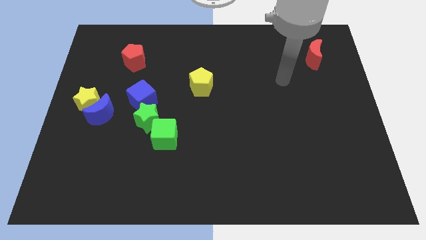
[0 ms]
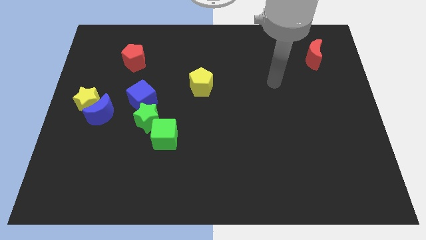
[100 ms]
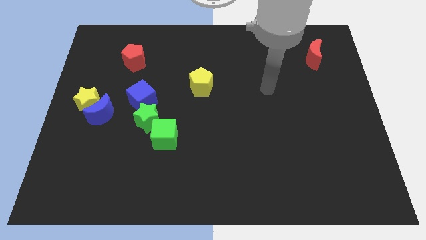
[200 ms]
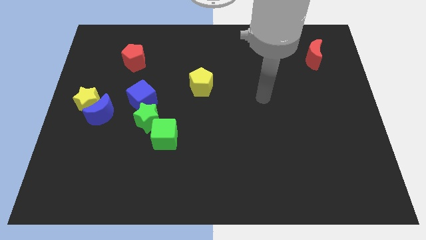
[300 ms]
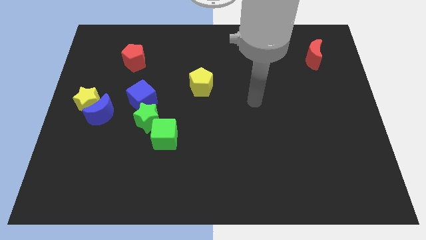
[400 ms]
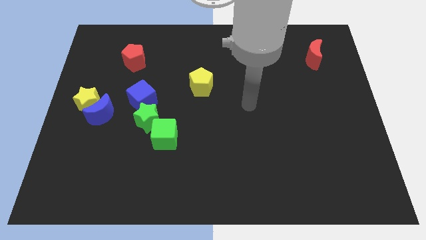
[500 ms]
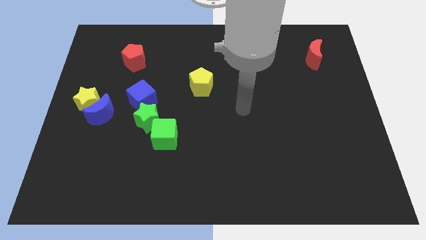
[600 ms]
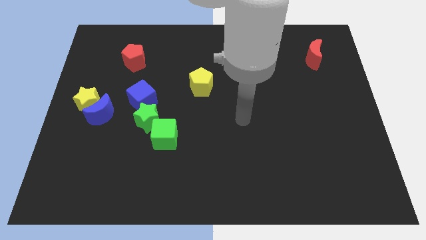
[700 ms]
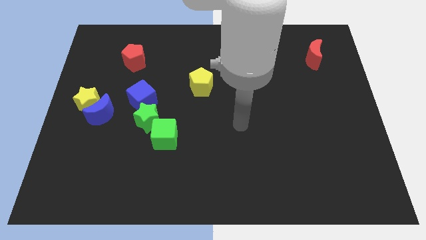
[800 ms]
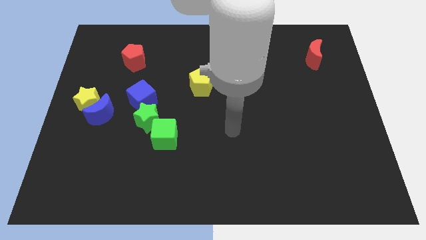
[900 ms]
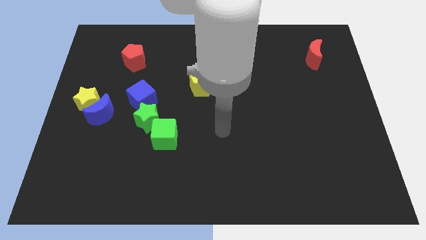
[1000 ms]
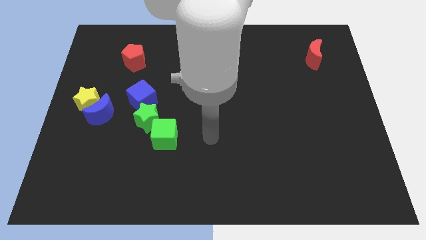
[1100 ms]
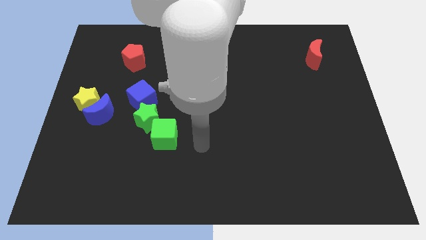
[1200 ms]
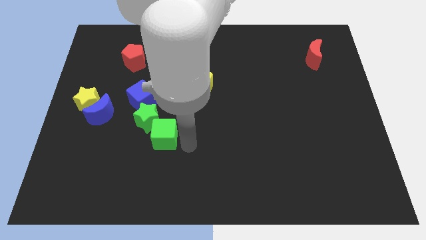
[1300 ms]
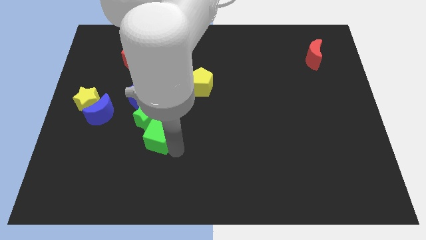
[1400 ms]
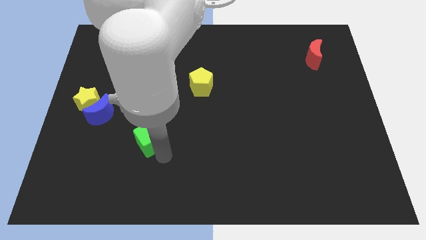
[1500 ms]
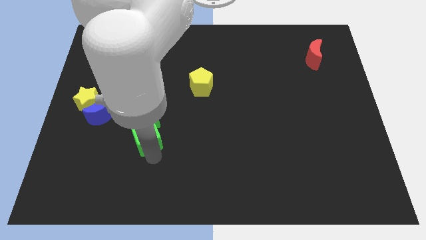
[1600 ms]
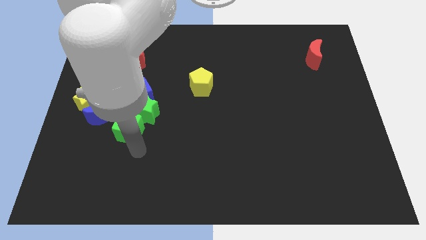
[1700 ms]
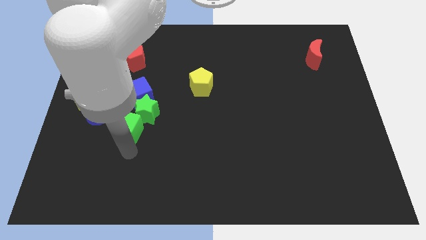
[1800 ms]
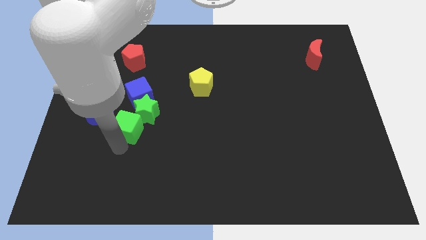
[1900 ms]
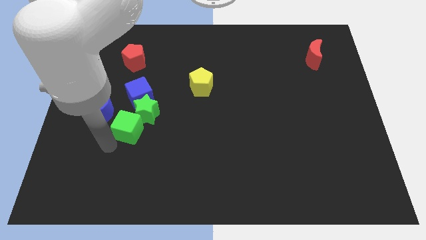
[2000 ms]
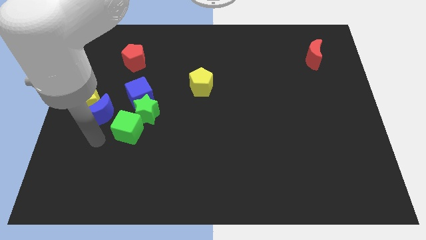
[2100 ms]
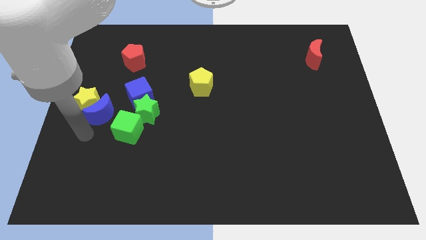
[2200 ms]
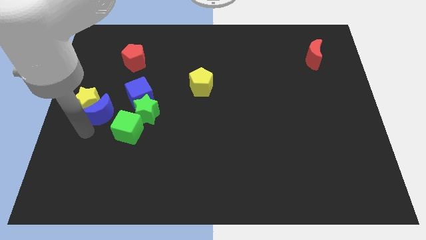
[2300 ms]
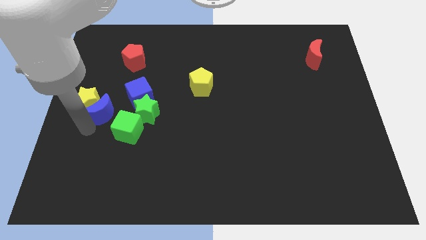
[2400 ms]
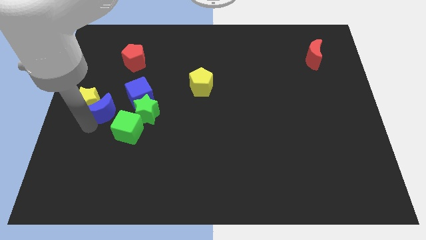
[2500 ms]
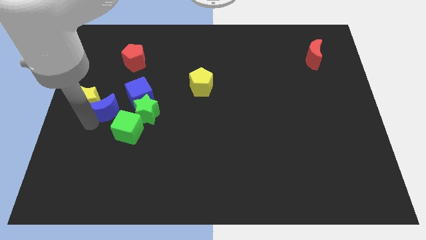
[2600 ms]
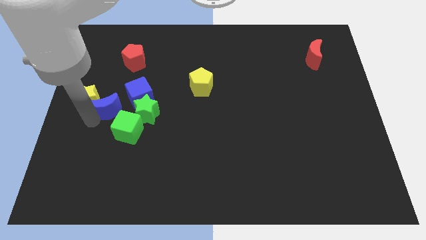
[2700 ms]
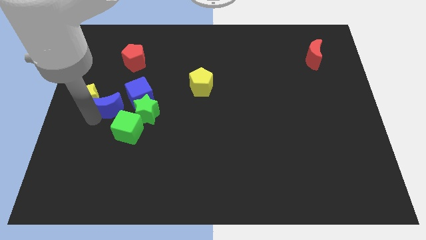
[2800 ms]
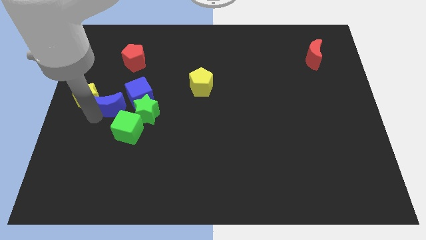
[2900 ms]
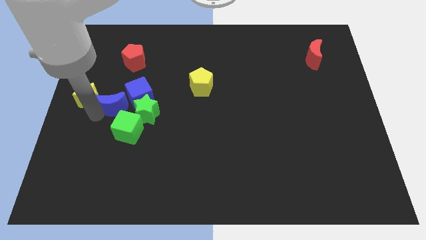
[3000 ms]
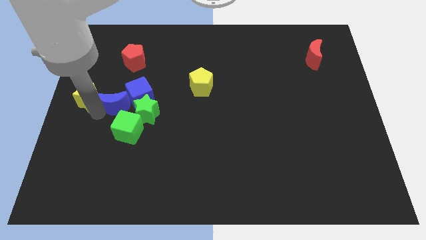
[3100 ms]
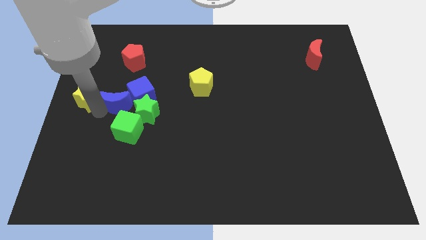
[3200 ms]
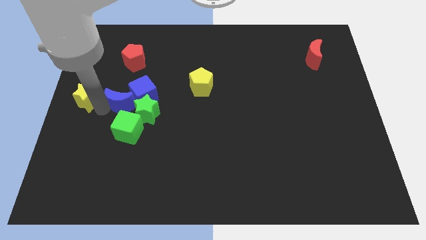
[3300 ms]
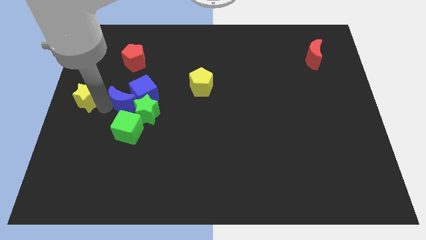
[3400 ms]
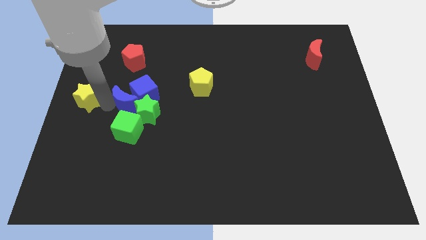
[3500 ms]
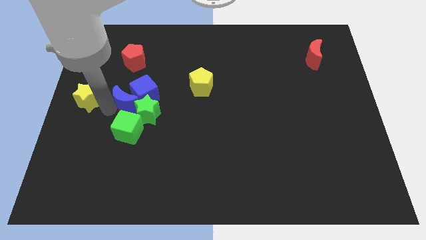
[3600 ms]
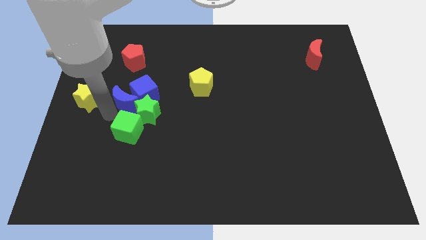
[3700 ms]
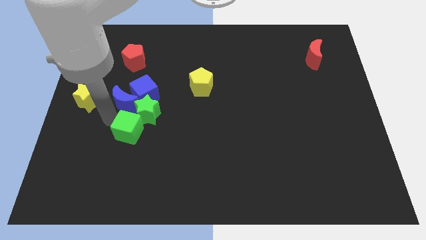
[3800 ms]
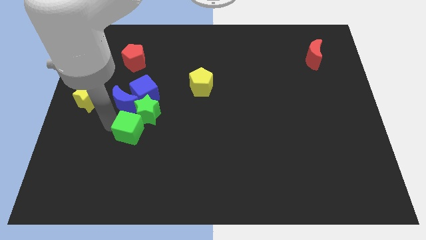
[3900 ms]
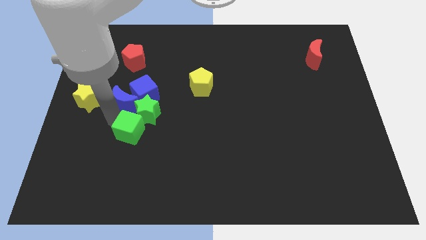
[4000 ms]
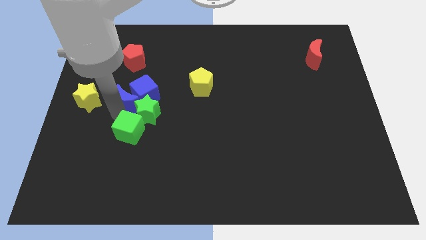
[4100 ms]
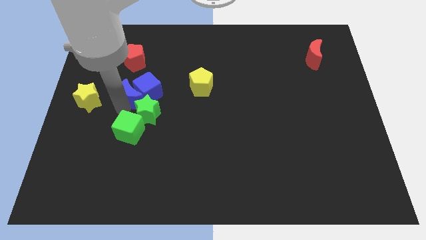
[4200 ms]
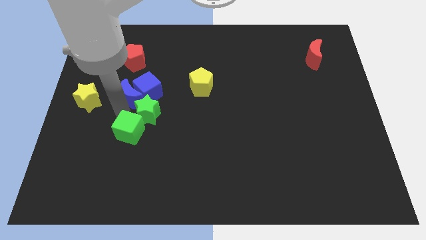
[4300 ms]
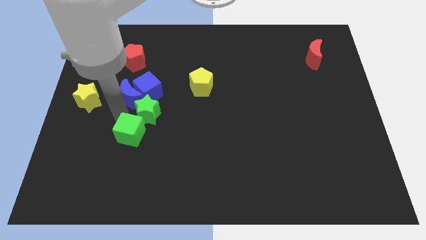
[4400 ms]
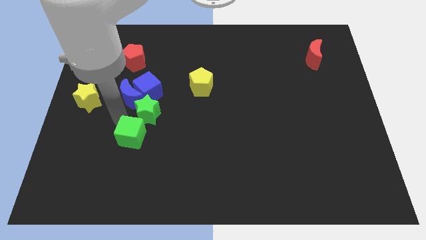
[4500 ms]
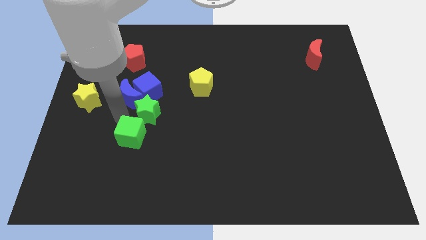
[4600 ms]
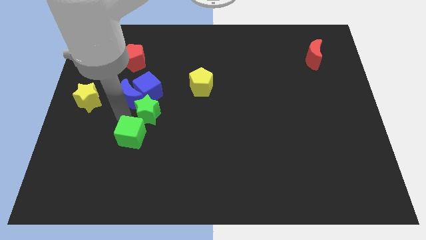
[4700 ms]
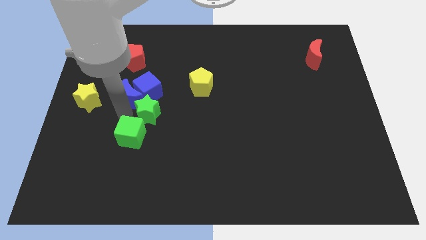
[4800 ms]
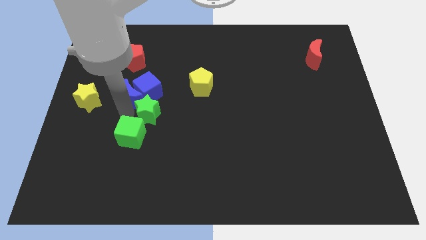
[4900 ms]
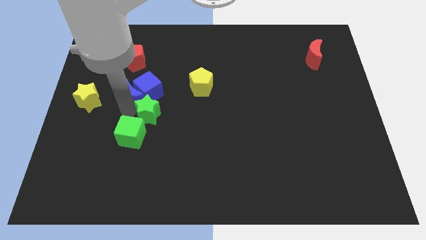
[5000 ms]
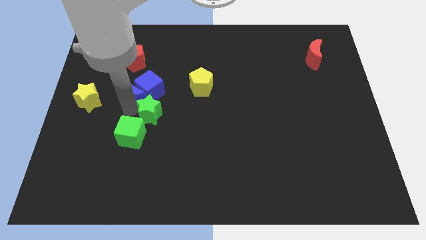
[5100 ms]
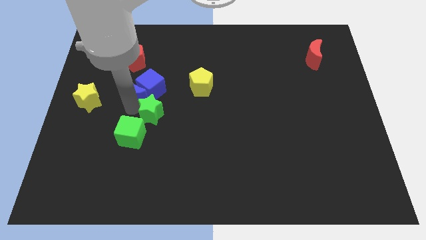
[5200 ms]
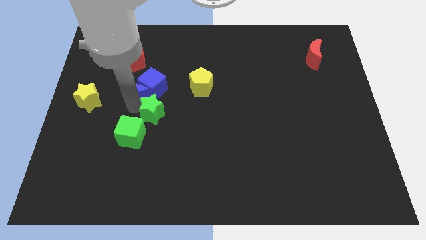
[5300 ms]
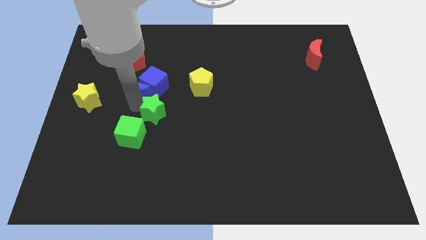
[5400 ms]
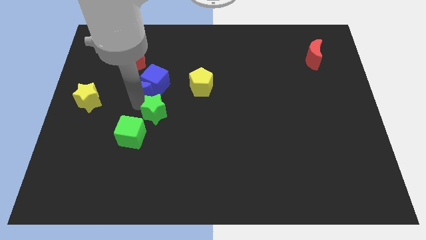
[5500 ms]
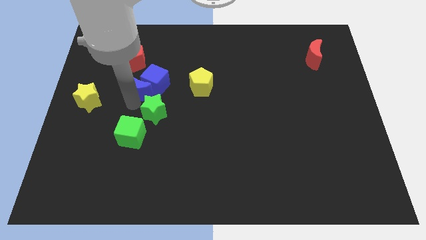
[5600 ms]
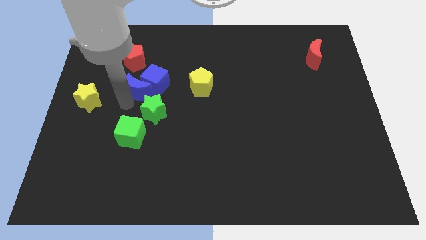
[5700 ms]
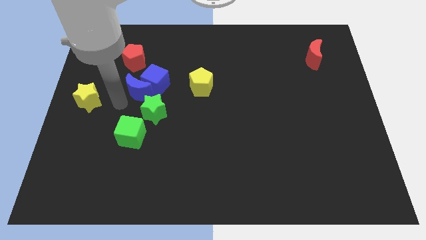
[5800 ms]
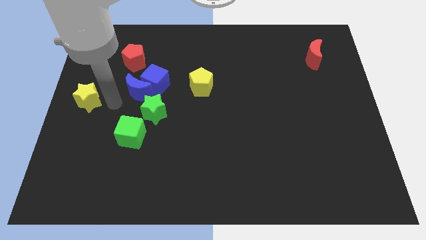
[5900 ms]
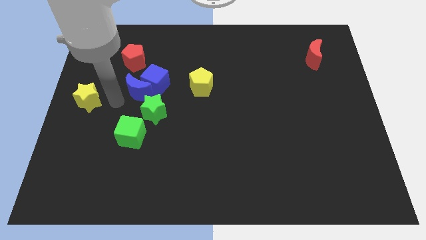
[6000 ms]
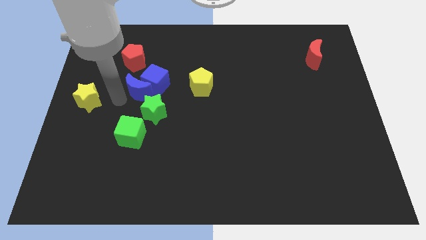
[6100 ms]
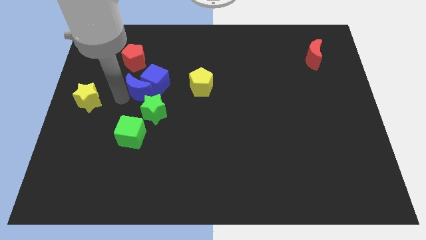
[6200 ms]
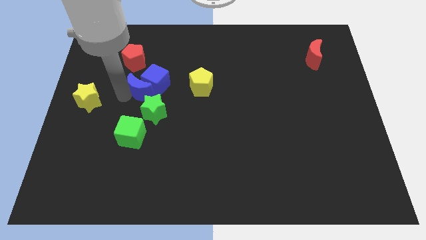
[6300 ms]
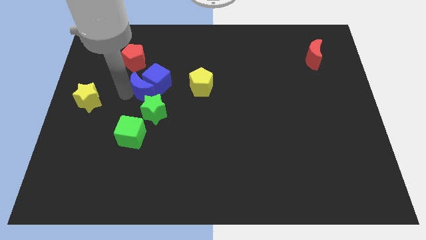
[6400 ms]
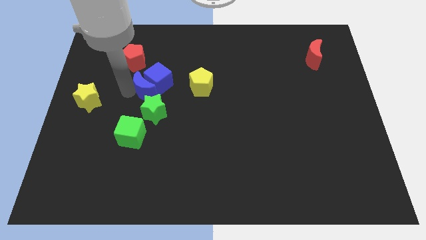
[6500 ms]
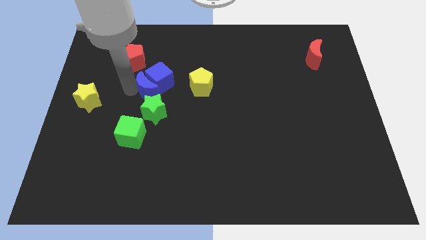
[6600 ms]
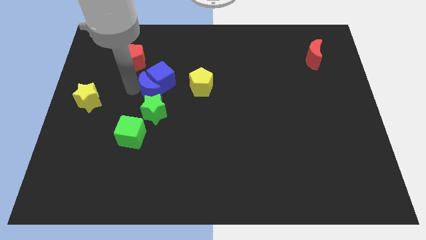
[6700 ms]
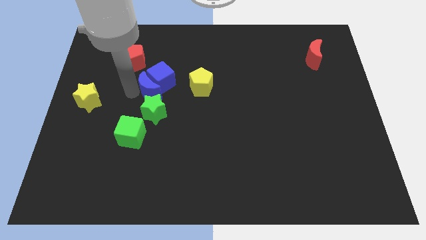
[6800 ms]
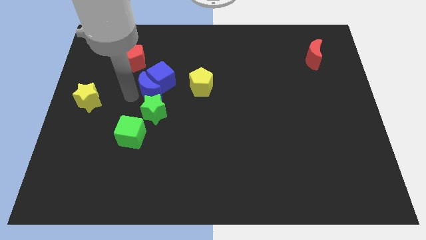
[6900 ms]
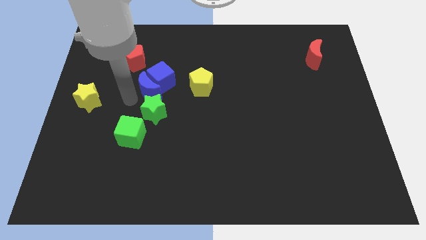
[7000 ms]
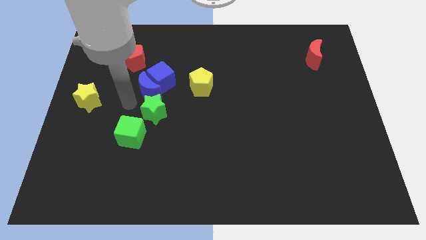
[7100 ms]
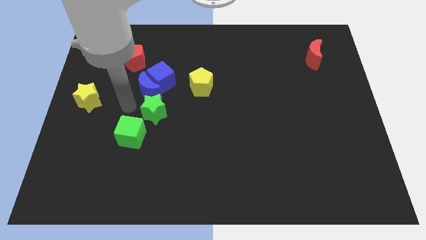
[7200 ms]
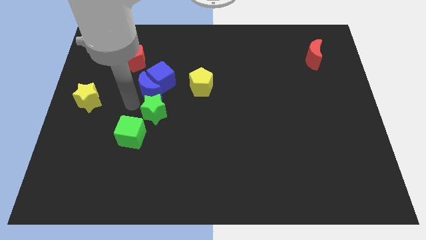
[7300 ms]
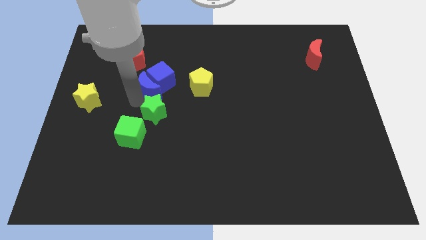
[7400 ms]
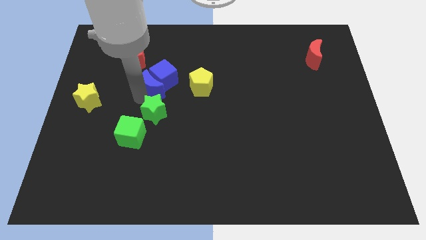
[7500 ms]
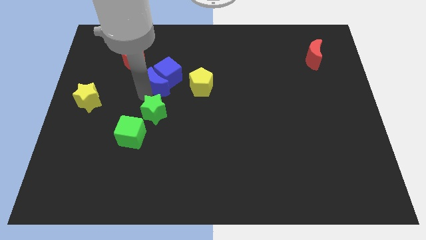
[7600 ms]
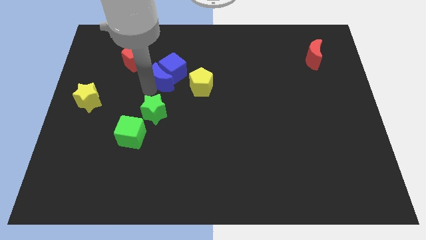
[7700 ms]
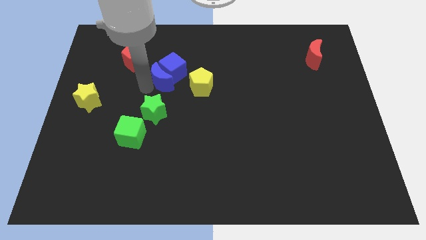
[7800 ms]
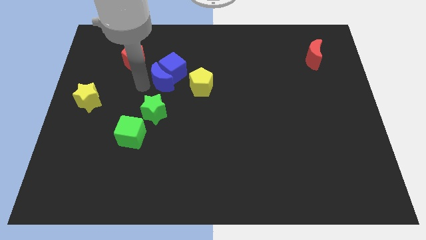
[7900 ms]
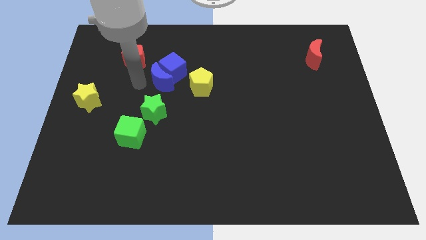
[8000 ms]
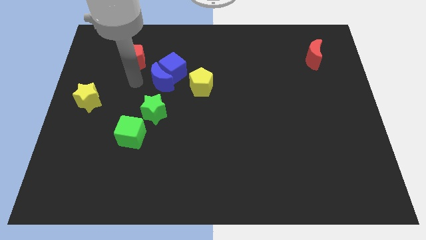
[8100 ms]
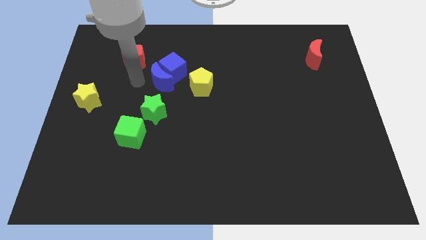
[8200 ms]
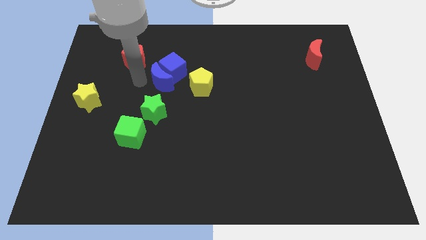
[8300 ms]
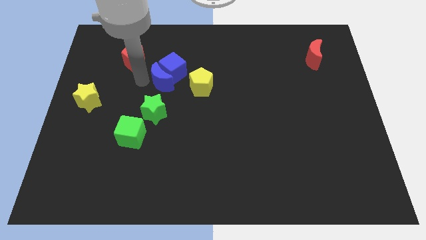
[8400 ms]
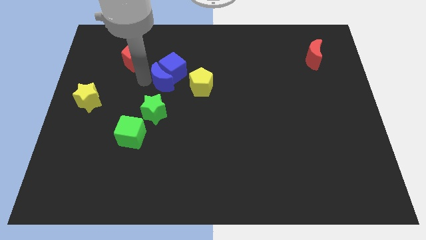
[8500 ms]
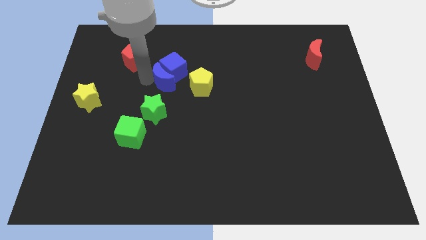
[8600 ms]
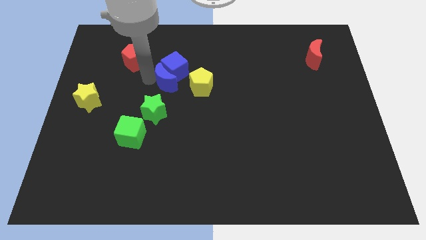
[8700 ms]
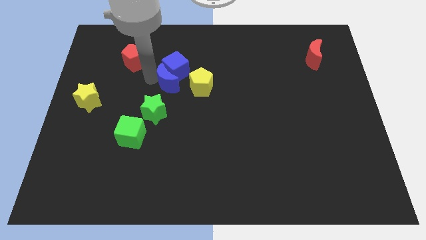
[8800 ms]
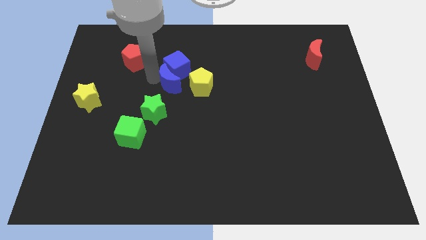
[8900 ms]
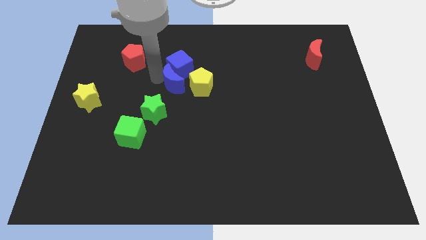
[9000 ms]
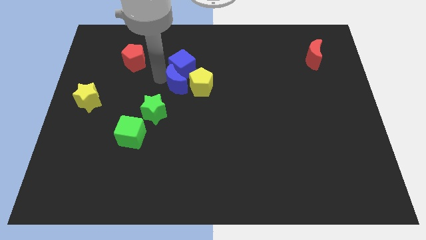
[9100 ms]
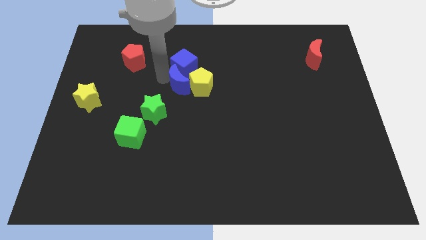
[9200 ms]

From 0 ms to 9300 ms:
move the blue moon to the yellow pentagon
